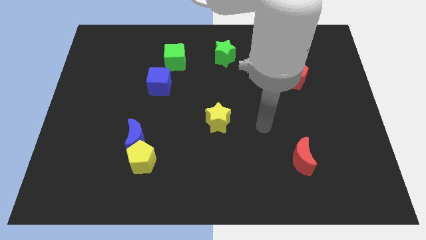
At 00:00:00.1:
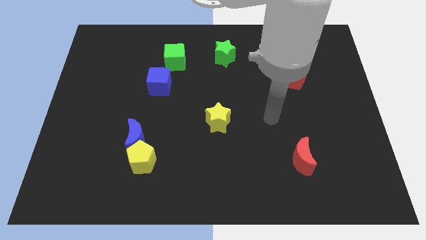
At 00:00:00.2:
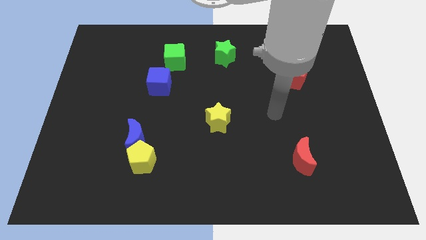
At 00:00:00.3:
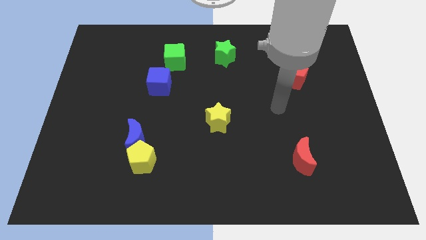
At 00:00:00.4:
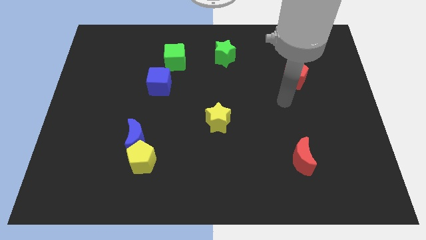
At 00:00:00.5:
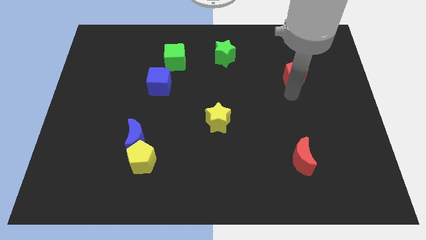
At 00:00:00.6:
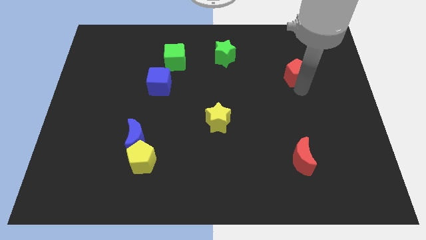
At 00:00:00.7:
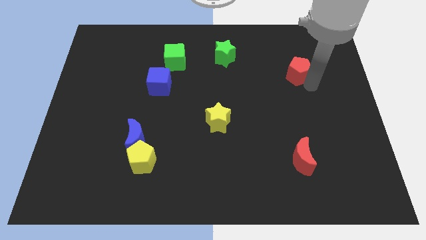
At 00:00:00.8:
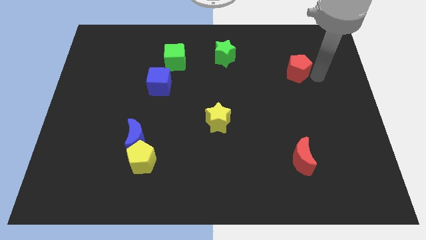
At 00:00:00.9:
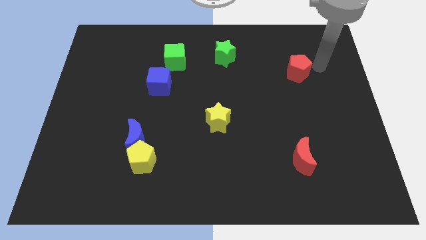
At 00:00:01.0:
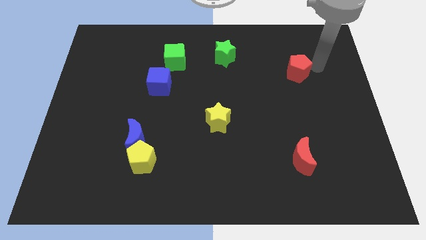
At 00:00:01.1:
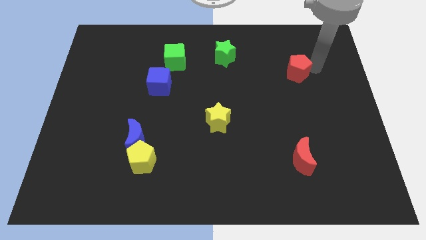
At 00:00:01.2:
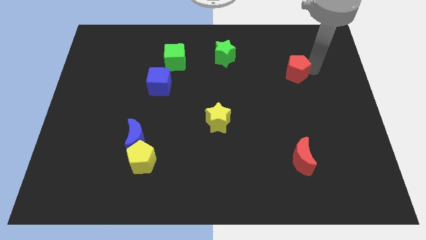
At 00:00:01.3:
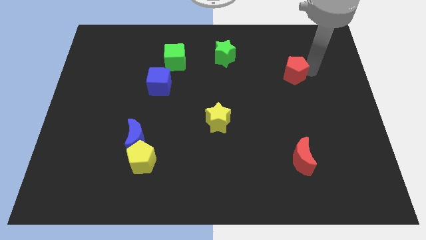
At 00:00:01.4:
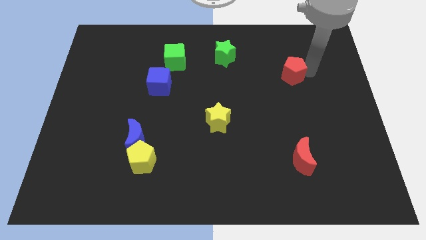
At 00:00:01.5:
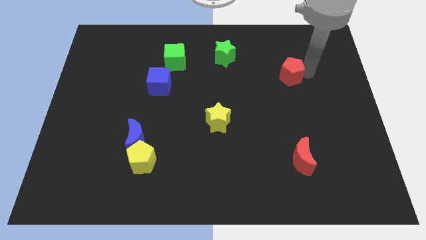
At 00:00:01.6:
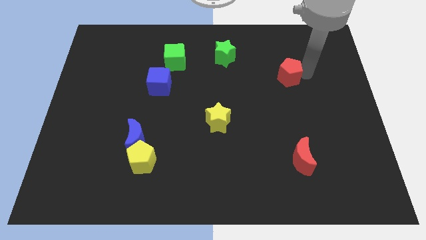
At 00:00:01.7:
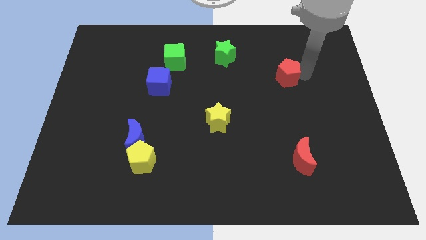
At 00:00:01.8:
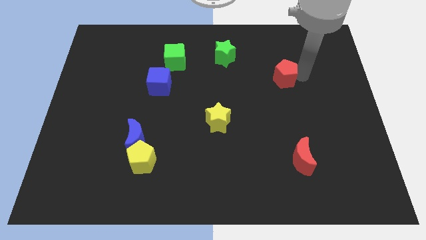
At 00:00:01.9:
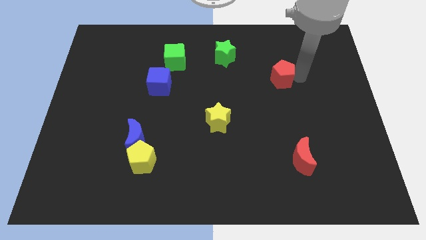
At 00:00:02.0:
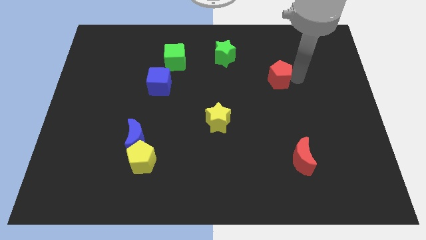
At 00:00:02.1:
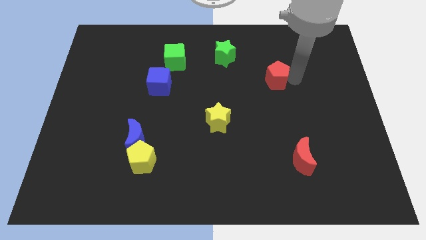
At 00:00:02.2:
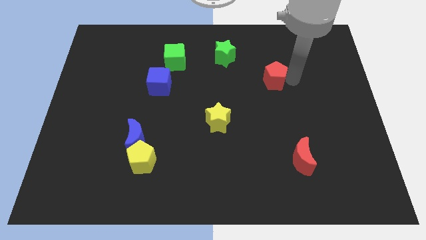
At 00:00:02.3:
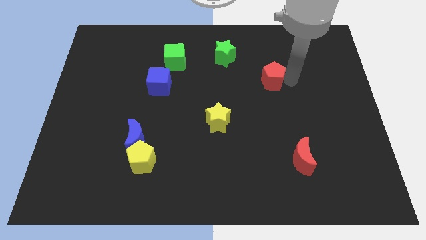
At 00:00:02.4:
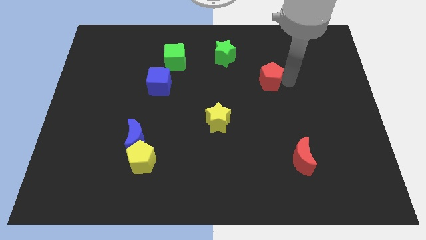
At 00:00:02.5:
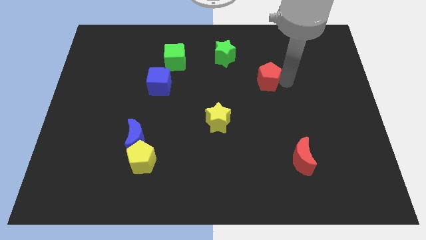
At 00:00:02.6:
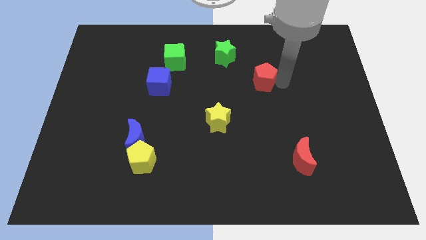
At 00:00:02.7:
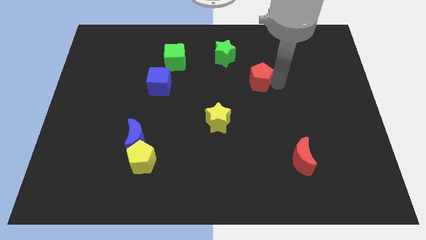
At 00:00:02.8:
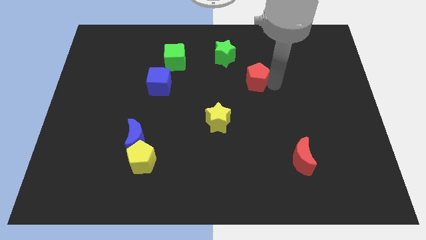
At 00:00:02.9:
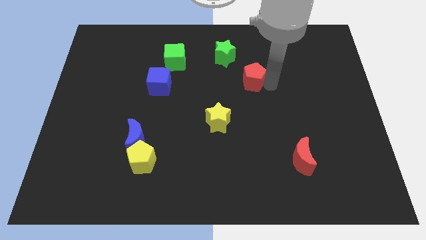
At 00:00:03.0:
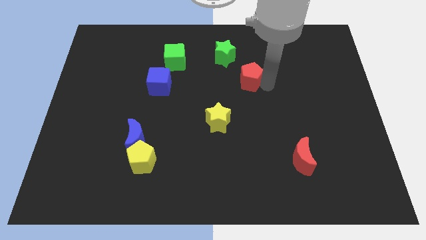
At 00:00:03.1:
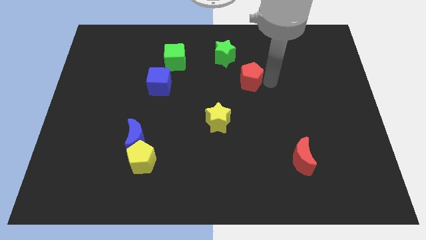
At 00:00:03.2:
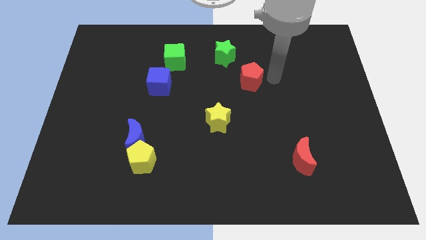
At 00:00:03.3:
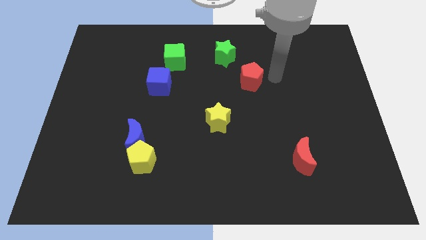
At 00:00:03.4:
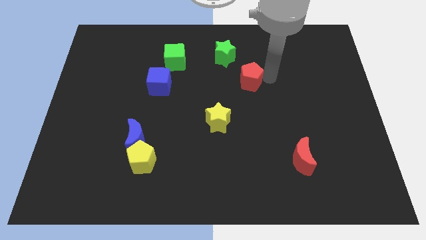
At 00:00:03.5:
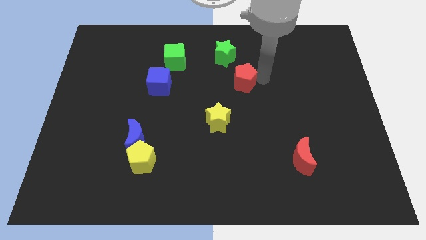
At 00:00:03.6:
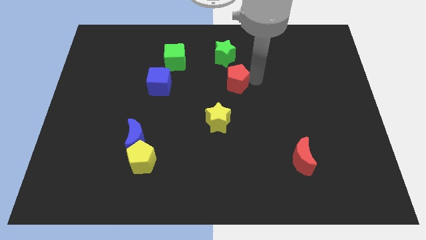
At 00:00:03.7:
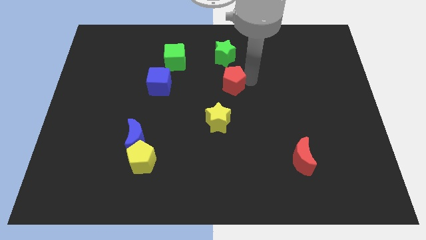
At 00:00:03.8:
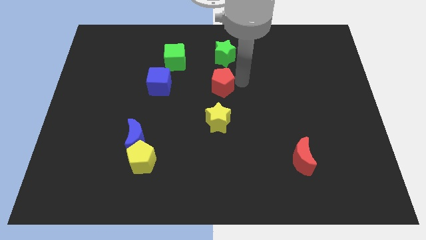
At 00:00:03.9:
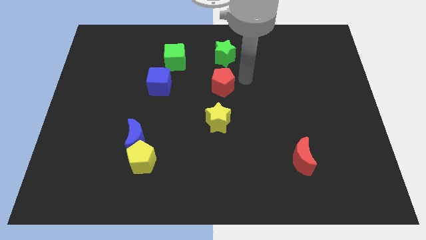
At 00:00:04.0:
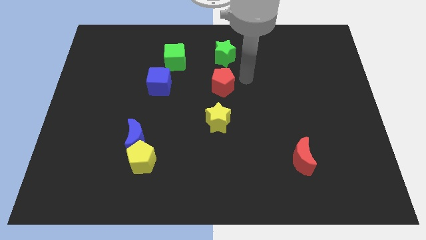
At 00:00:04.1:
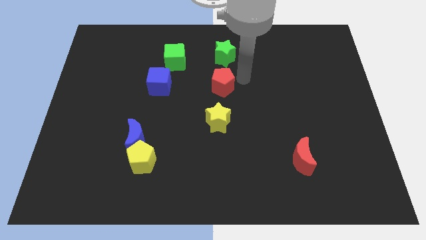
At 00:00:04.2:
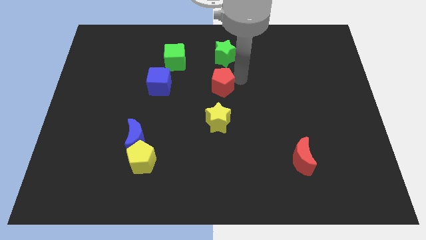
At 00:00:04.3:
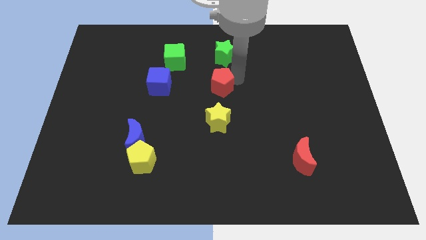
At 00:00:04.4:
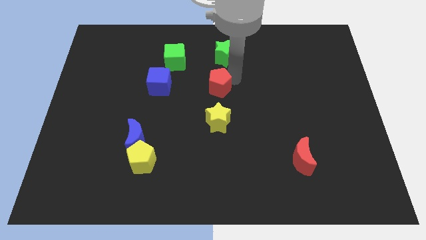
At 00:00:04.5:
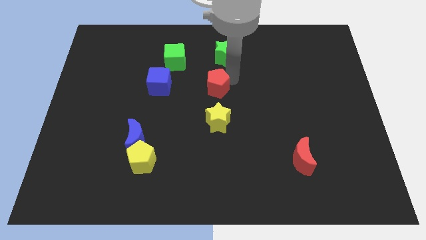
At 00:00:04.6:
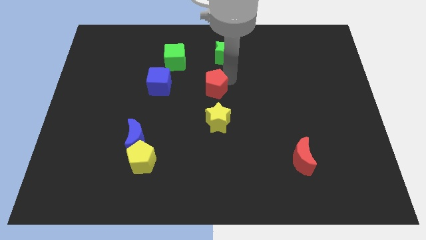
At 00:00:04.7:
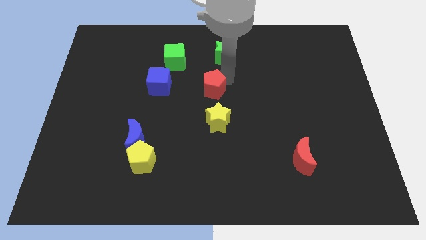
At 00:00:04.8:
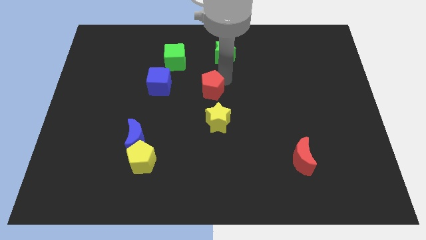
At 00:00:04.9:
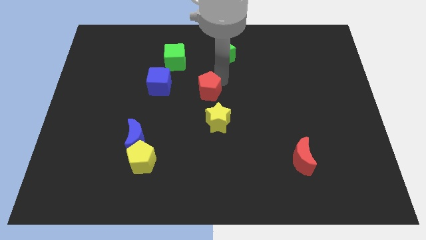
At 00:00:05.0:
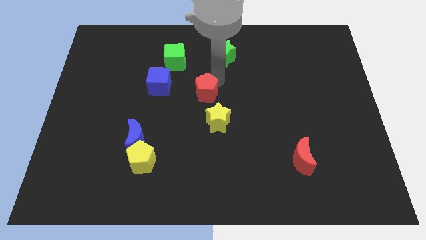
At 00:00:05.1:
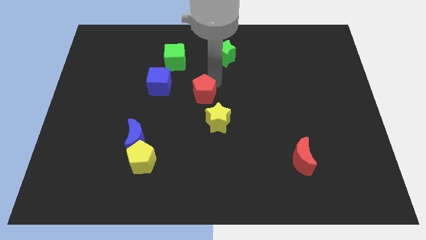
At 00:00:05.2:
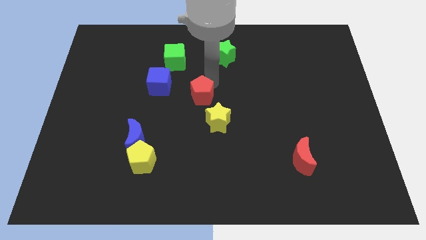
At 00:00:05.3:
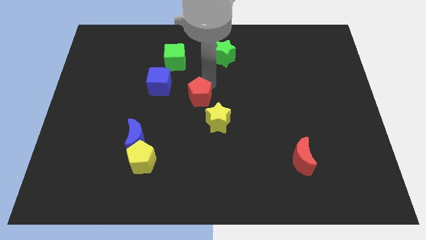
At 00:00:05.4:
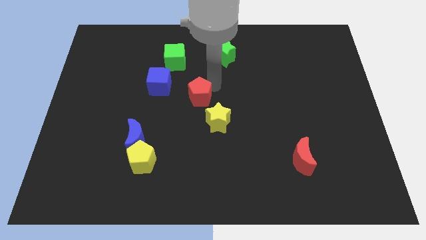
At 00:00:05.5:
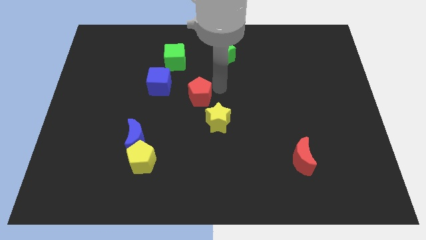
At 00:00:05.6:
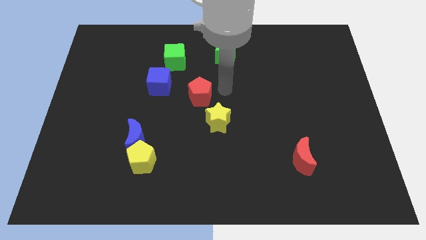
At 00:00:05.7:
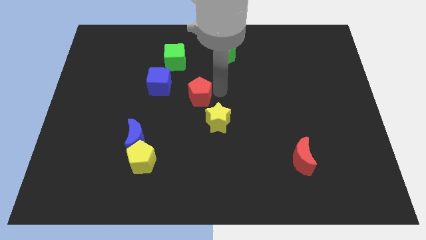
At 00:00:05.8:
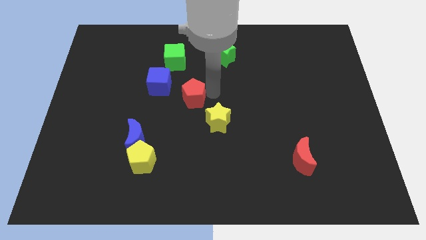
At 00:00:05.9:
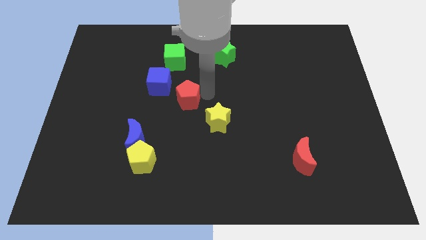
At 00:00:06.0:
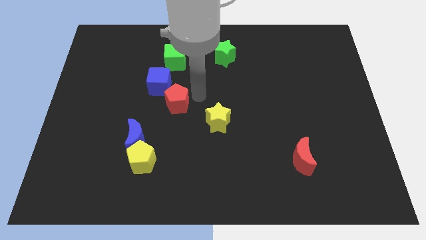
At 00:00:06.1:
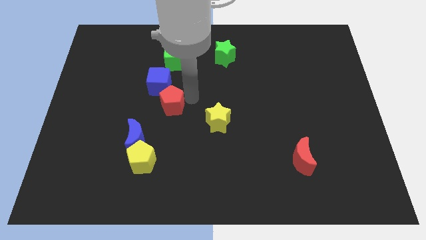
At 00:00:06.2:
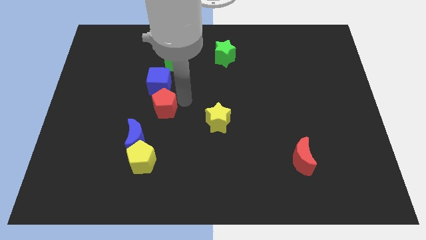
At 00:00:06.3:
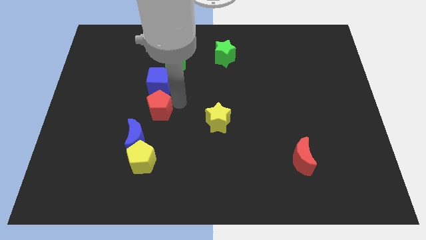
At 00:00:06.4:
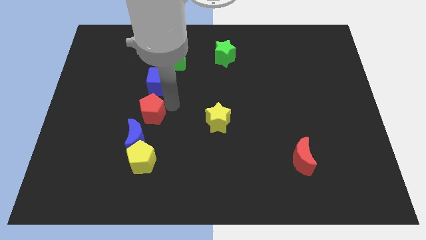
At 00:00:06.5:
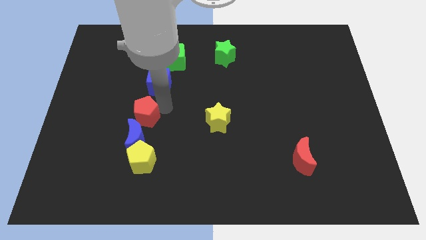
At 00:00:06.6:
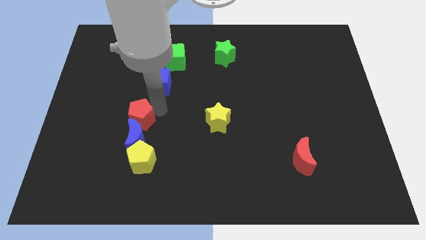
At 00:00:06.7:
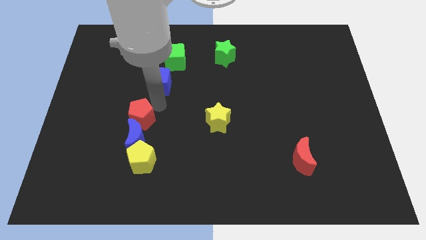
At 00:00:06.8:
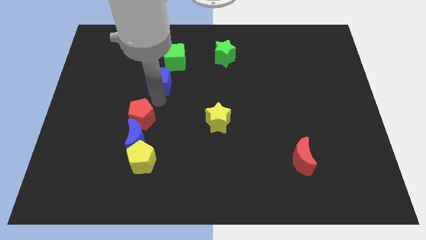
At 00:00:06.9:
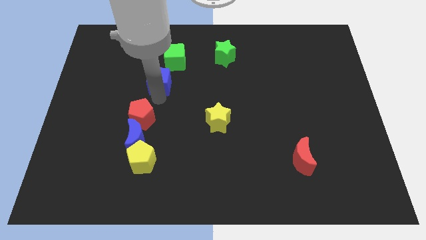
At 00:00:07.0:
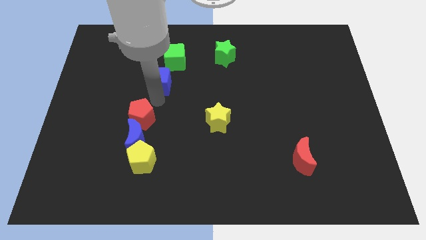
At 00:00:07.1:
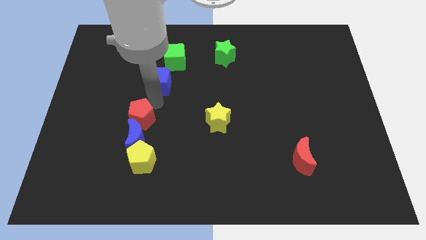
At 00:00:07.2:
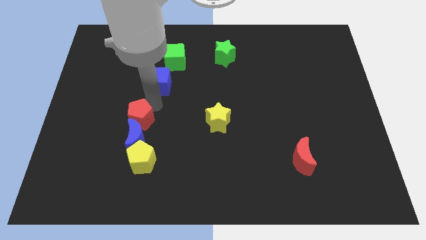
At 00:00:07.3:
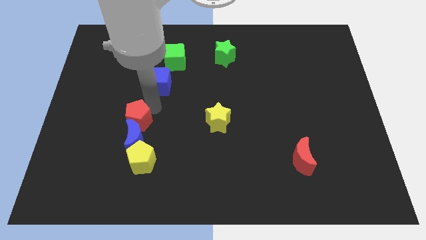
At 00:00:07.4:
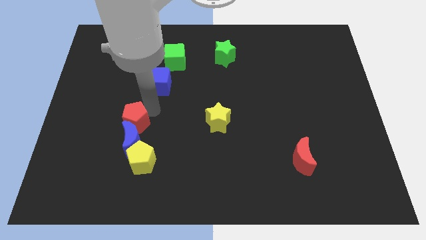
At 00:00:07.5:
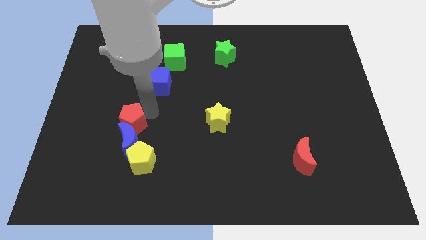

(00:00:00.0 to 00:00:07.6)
move the red pentagon to the top left of the yellow pentagon
